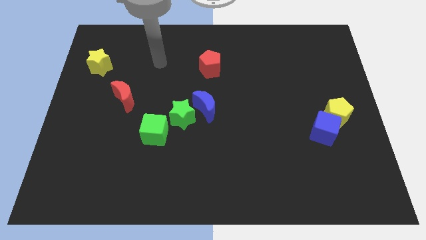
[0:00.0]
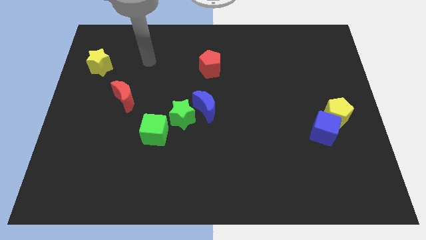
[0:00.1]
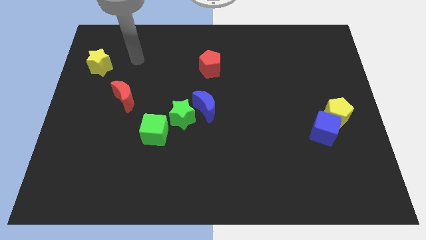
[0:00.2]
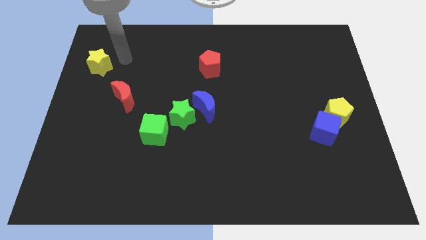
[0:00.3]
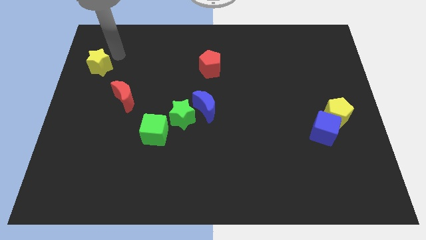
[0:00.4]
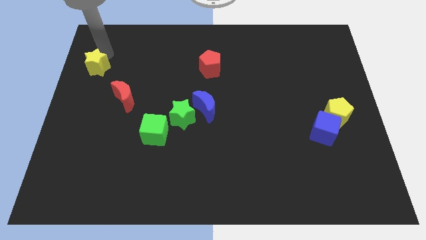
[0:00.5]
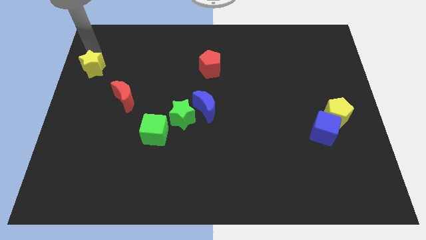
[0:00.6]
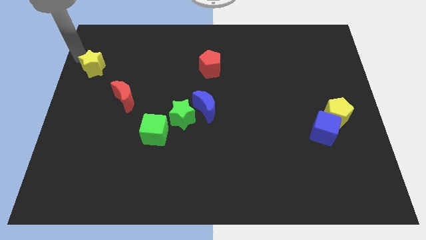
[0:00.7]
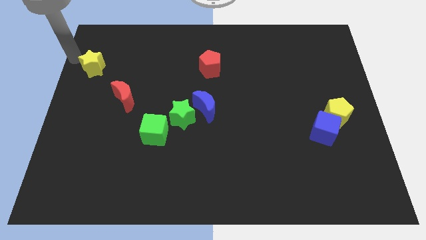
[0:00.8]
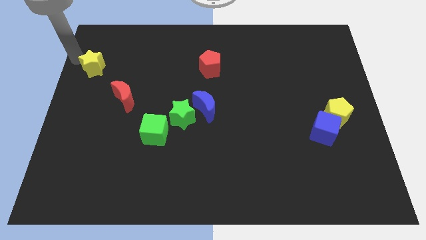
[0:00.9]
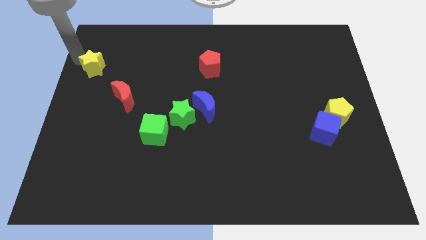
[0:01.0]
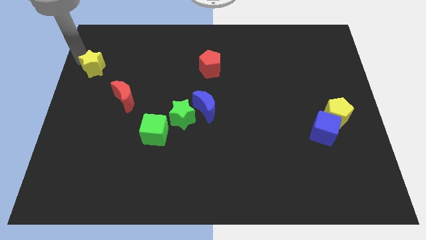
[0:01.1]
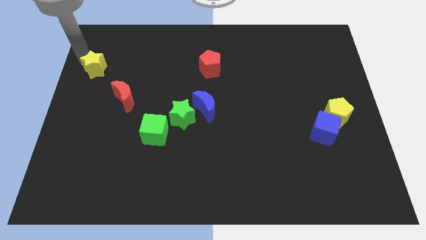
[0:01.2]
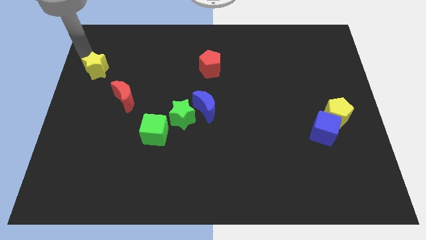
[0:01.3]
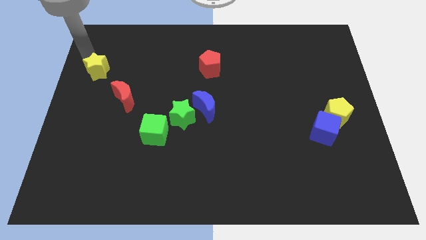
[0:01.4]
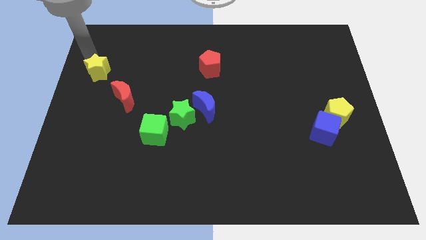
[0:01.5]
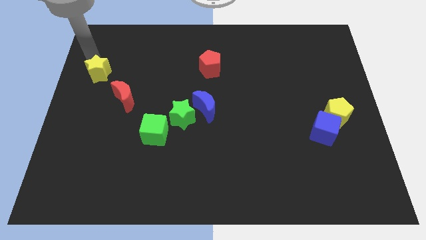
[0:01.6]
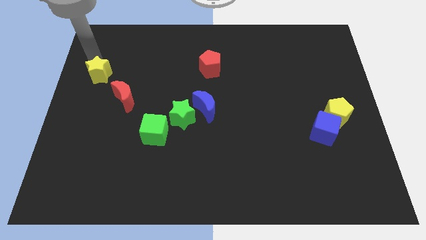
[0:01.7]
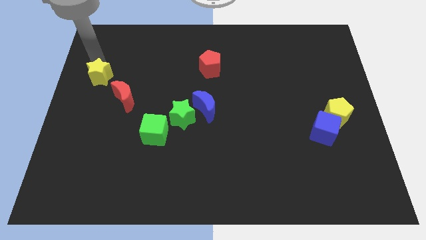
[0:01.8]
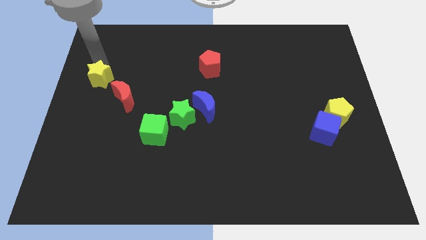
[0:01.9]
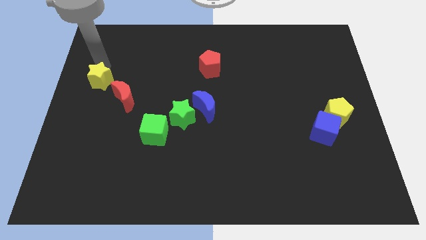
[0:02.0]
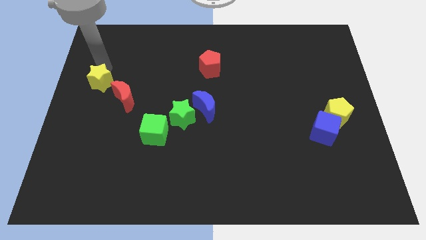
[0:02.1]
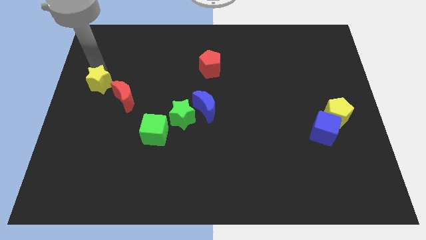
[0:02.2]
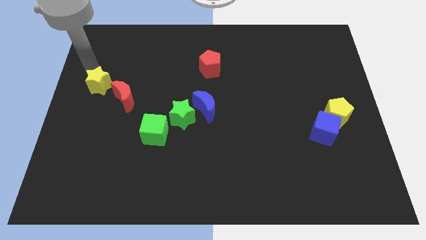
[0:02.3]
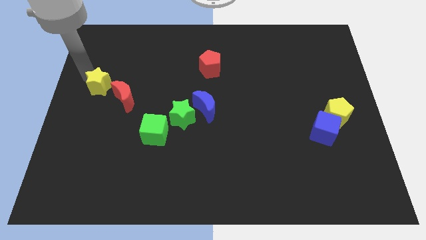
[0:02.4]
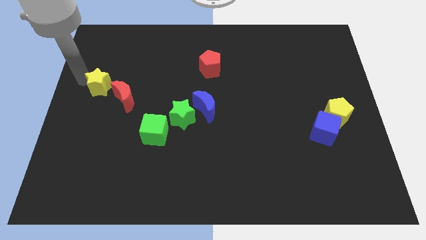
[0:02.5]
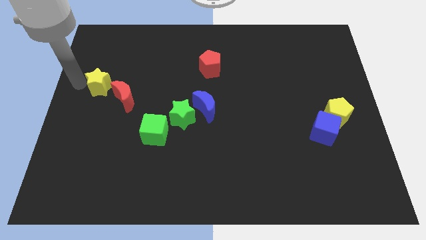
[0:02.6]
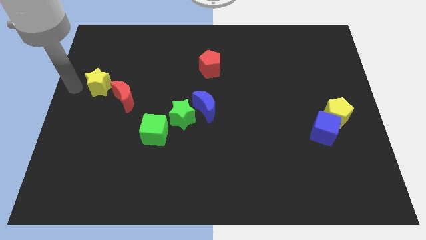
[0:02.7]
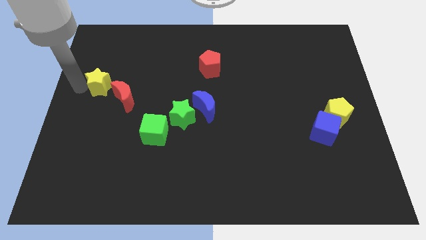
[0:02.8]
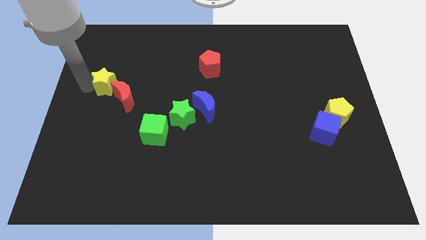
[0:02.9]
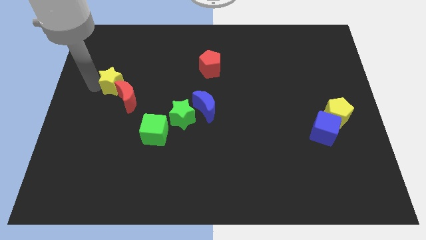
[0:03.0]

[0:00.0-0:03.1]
slide the yellow star diagonally downwards and right a little bit

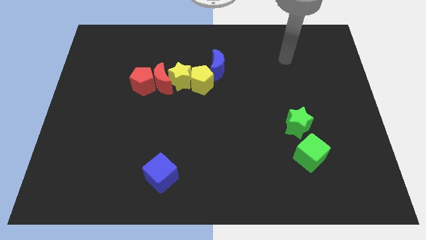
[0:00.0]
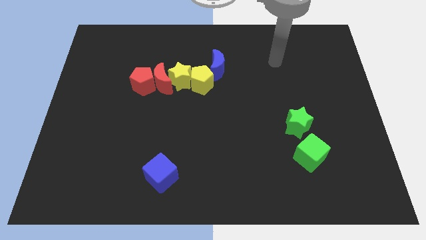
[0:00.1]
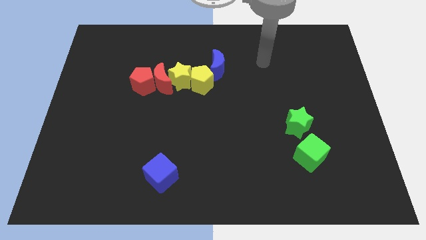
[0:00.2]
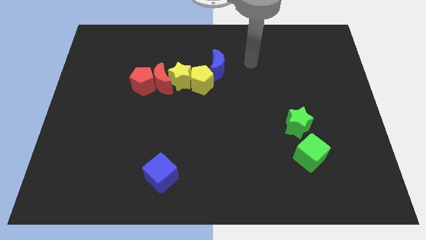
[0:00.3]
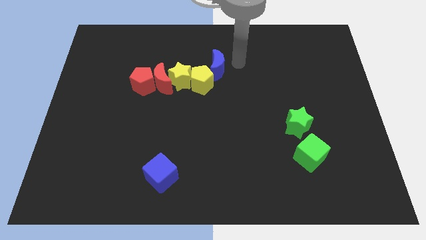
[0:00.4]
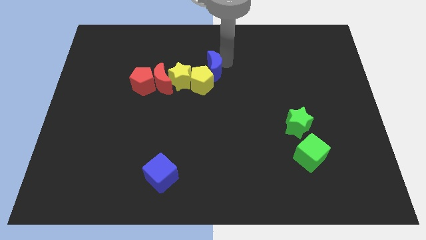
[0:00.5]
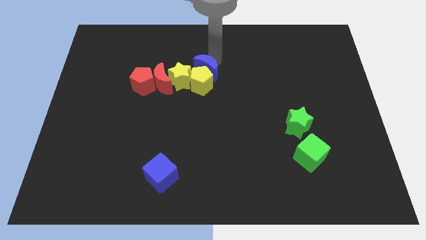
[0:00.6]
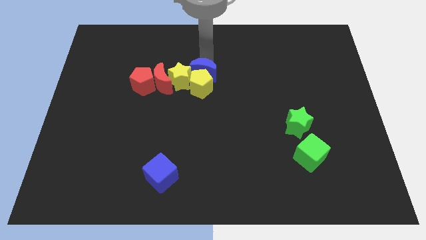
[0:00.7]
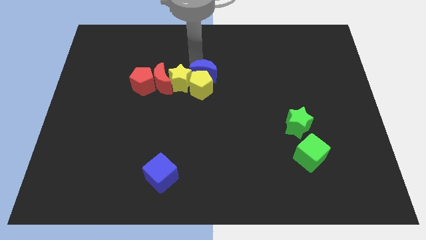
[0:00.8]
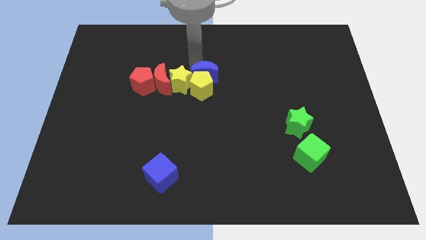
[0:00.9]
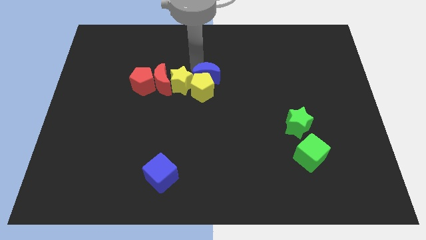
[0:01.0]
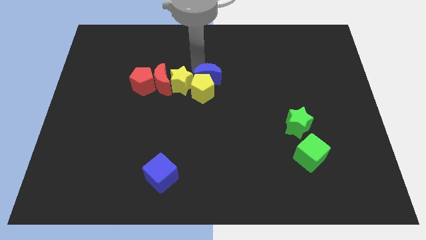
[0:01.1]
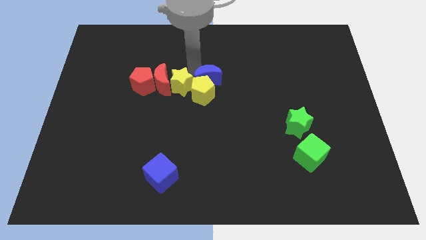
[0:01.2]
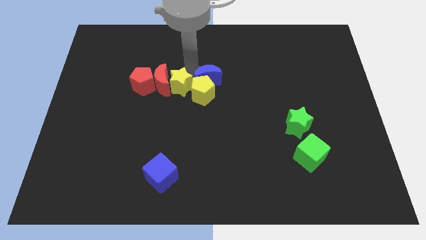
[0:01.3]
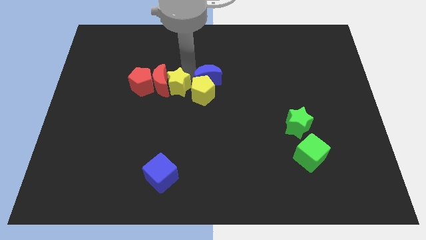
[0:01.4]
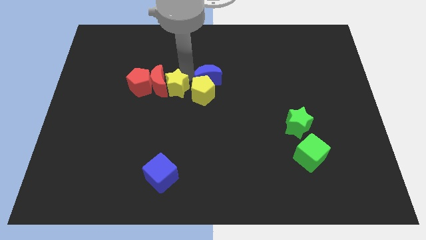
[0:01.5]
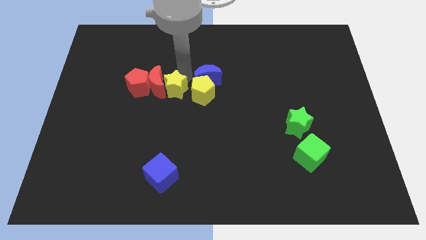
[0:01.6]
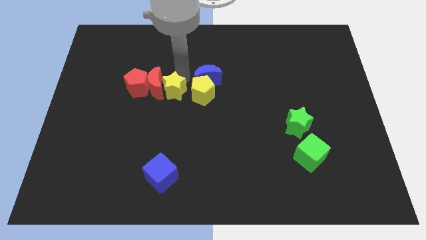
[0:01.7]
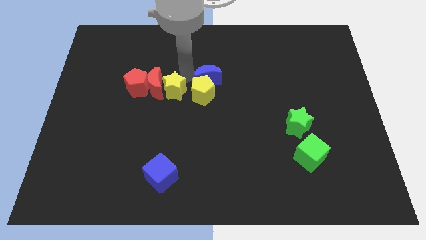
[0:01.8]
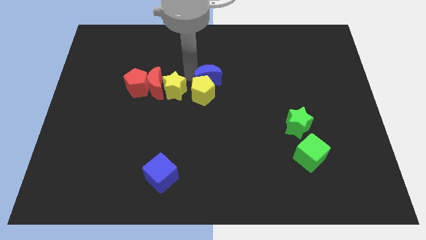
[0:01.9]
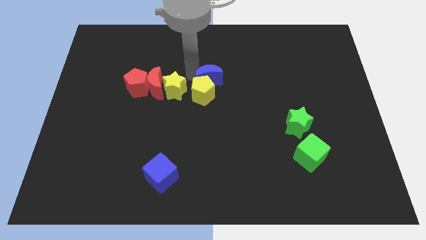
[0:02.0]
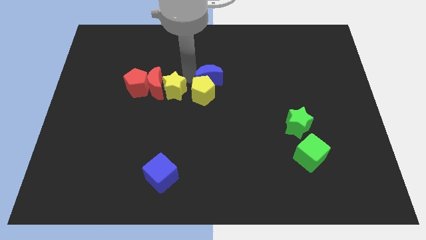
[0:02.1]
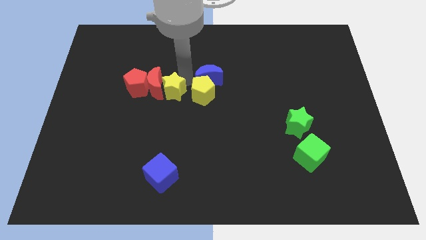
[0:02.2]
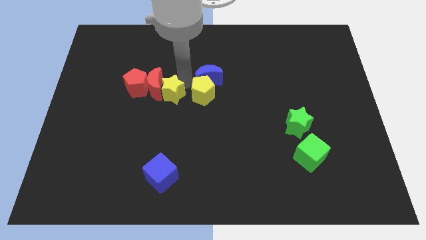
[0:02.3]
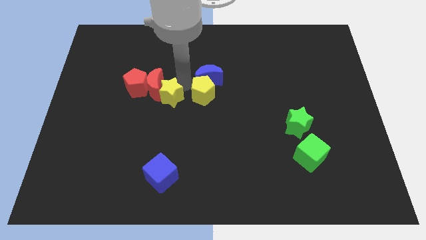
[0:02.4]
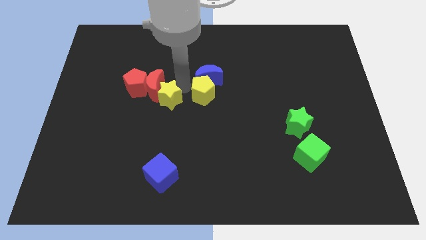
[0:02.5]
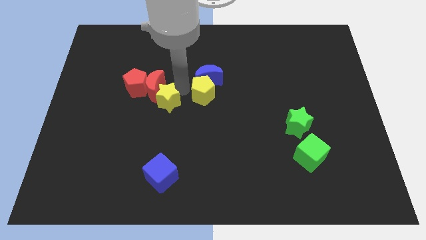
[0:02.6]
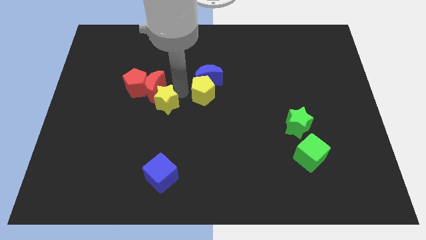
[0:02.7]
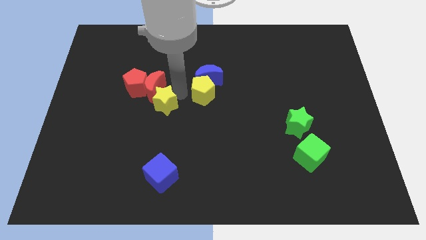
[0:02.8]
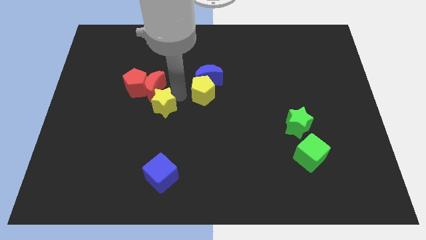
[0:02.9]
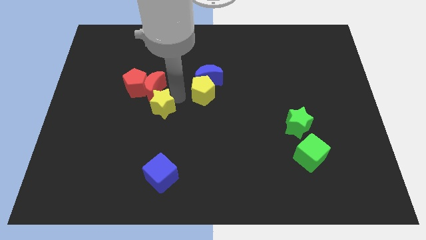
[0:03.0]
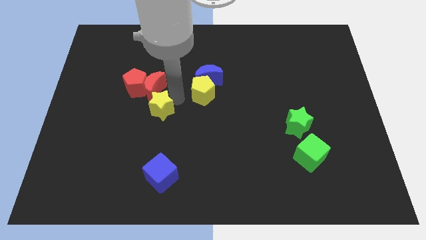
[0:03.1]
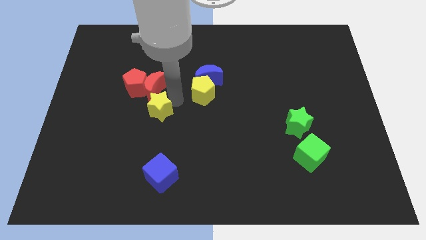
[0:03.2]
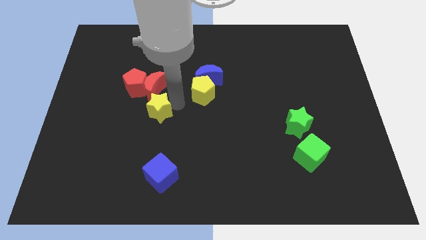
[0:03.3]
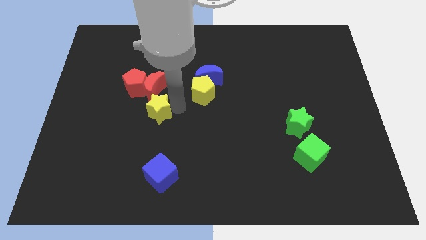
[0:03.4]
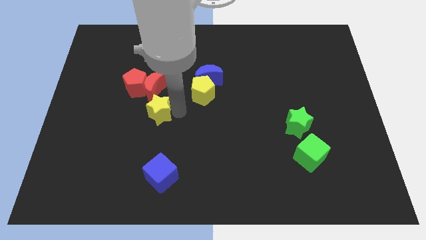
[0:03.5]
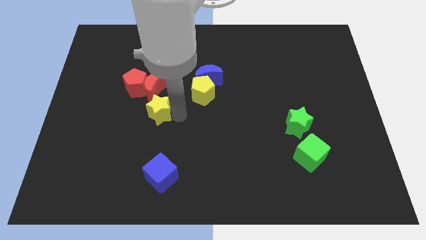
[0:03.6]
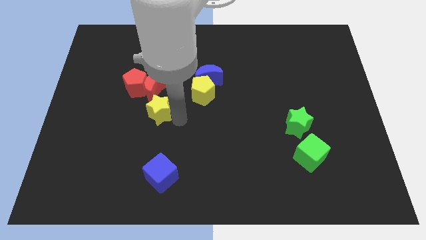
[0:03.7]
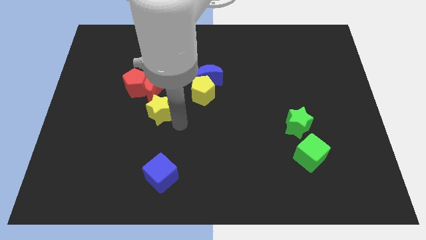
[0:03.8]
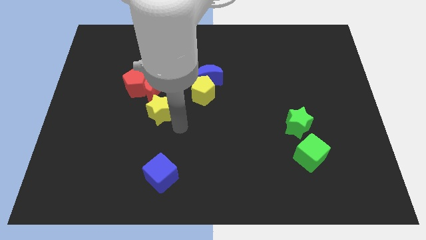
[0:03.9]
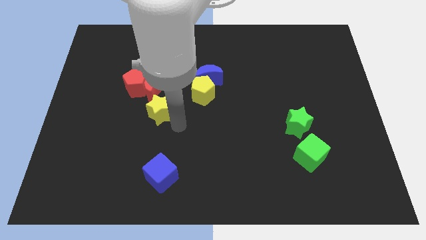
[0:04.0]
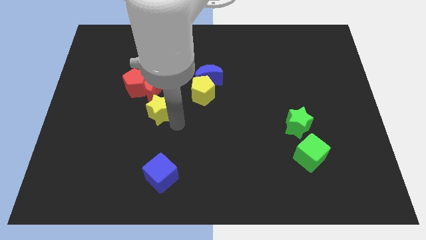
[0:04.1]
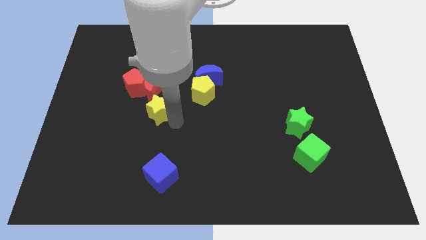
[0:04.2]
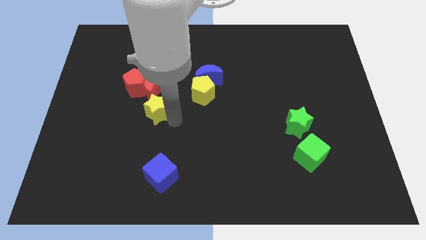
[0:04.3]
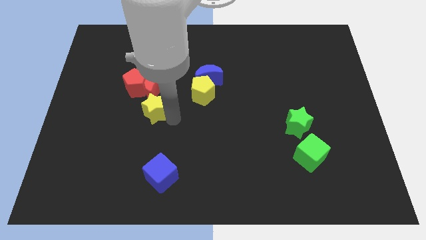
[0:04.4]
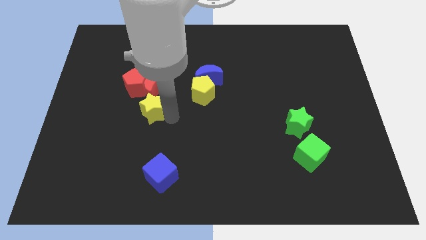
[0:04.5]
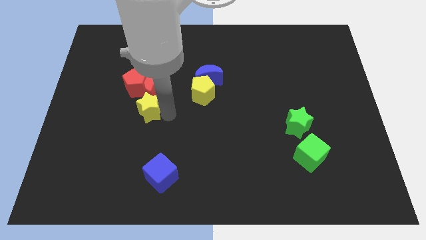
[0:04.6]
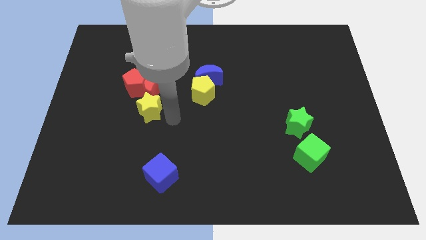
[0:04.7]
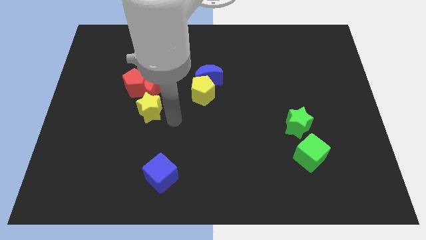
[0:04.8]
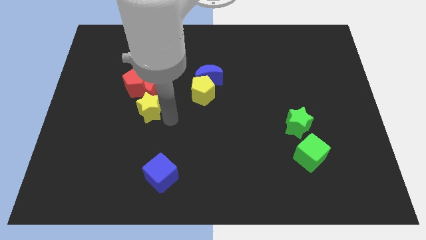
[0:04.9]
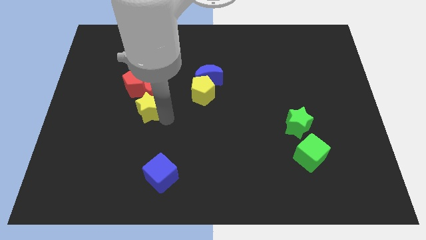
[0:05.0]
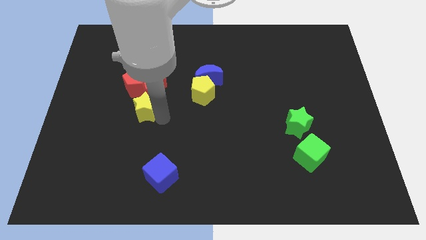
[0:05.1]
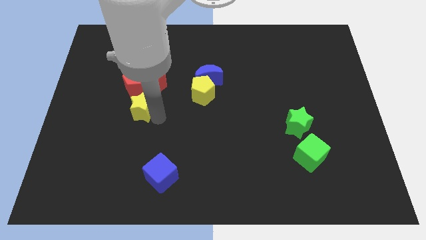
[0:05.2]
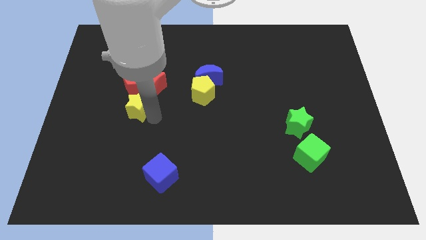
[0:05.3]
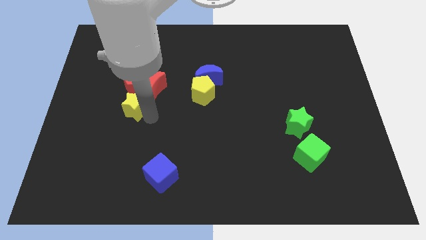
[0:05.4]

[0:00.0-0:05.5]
slide the yellow star to the left a bit
